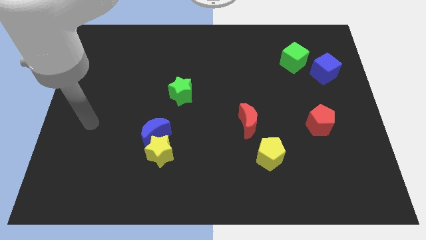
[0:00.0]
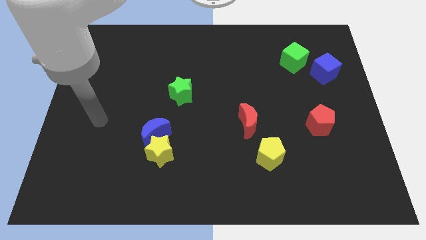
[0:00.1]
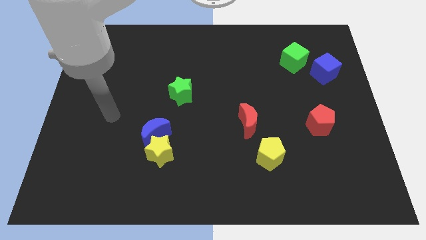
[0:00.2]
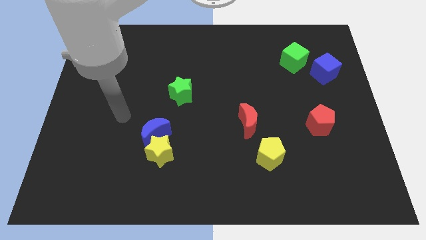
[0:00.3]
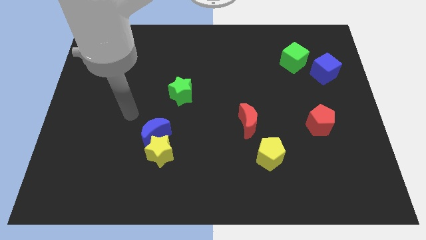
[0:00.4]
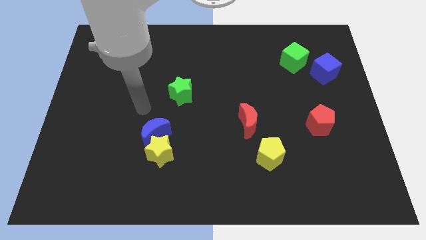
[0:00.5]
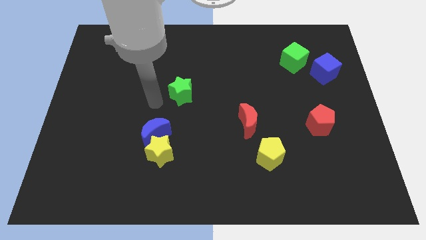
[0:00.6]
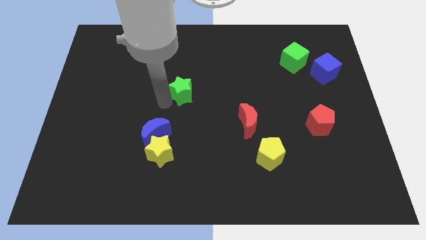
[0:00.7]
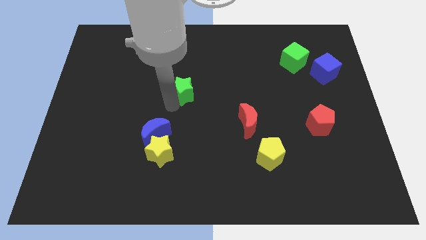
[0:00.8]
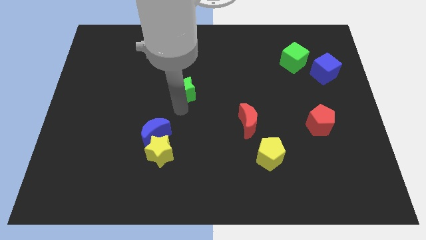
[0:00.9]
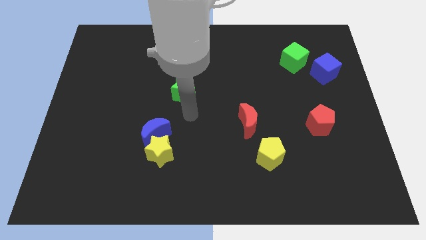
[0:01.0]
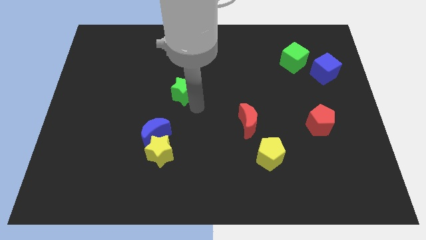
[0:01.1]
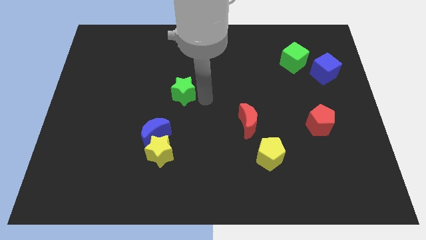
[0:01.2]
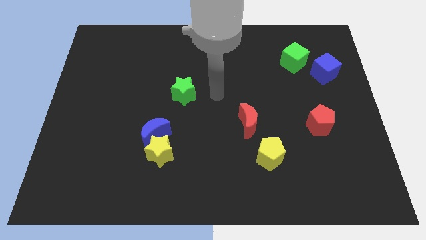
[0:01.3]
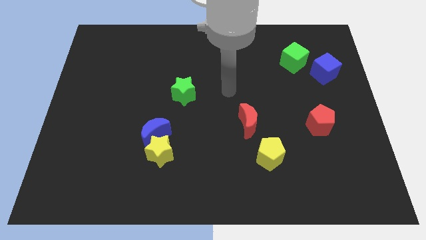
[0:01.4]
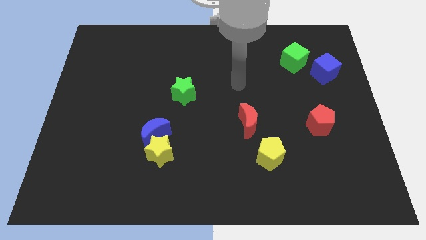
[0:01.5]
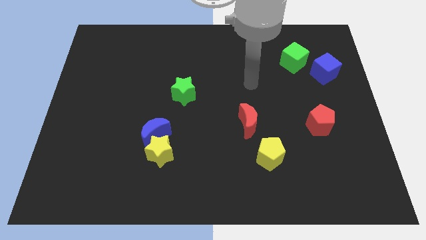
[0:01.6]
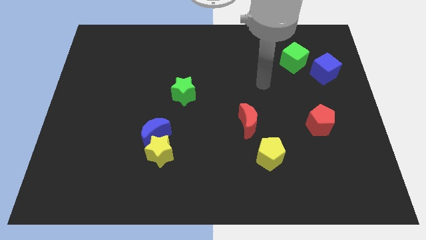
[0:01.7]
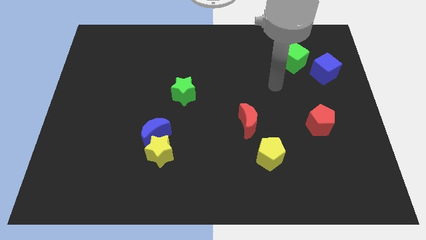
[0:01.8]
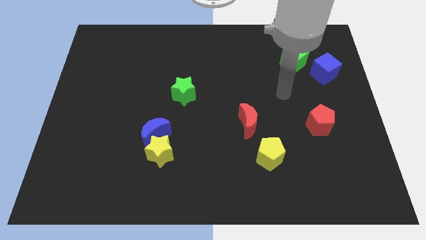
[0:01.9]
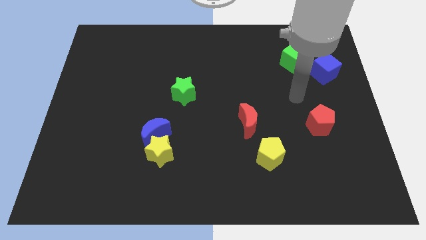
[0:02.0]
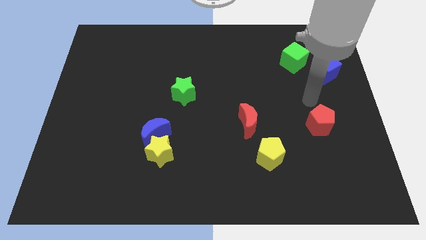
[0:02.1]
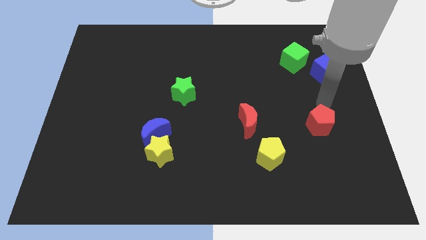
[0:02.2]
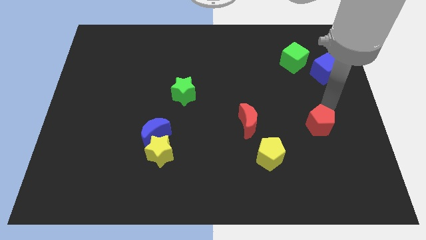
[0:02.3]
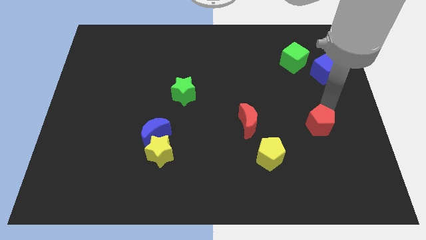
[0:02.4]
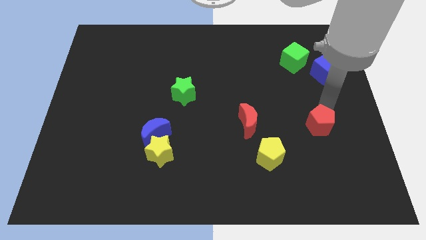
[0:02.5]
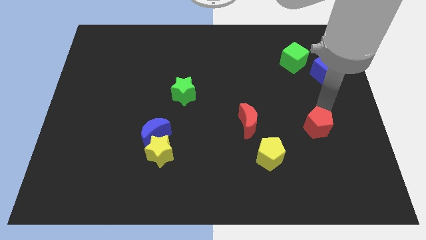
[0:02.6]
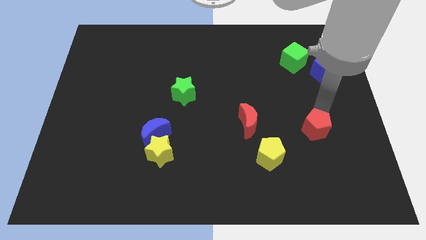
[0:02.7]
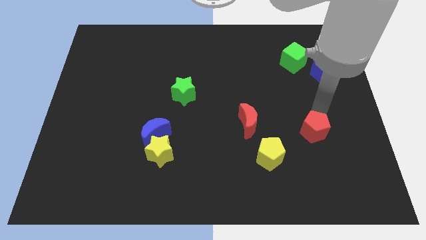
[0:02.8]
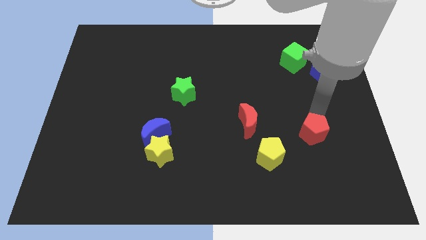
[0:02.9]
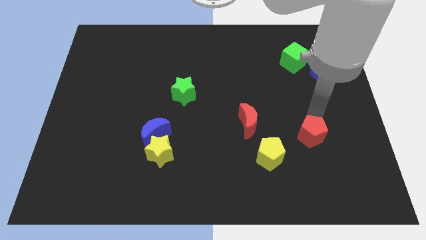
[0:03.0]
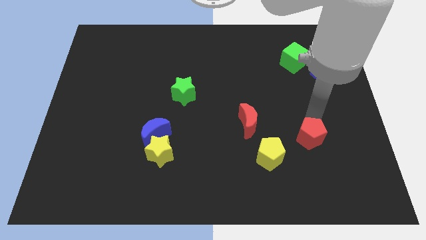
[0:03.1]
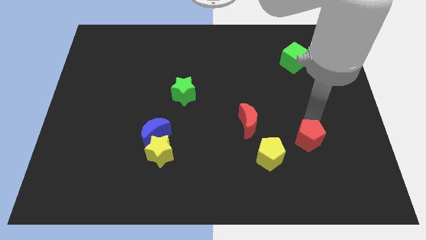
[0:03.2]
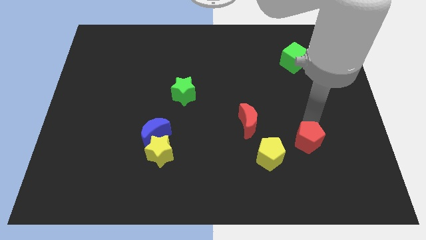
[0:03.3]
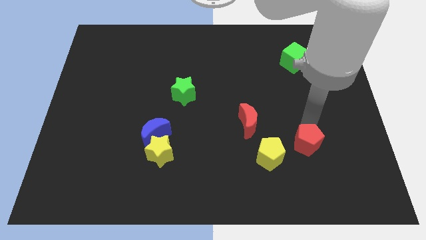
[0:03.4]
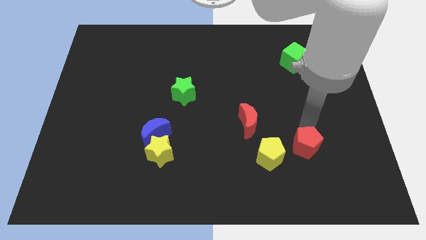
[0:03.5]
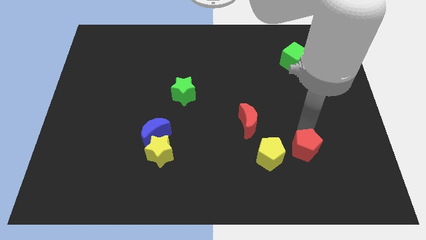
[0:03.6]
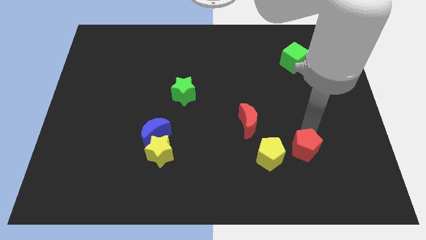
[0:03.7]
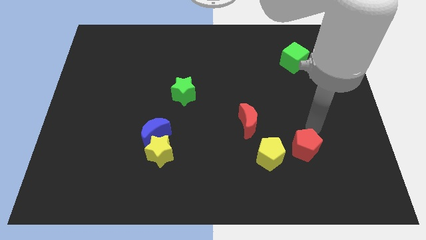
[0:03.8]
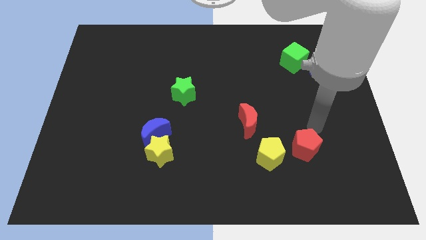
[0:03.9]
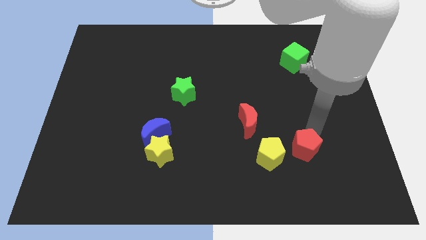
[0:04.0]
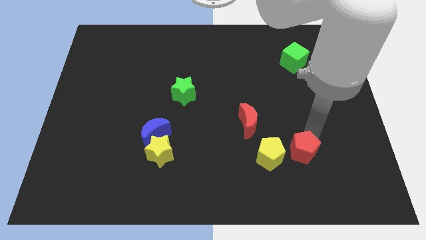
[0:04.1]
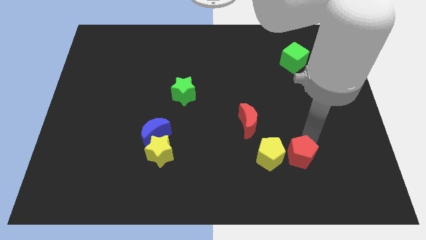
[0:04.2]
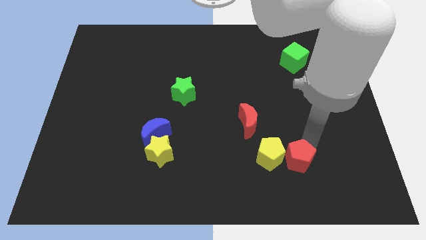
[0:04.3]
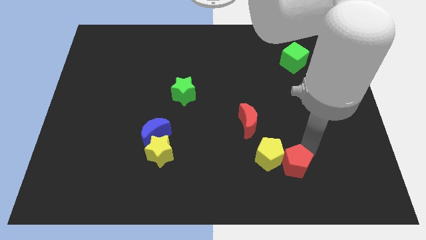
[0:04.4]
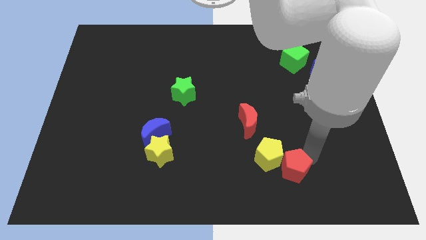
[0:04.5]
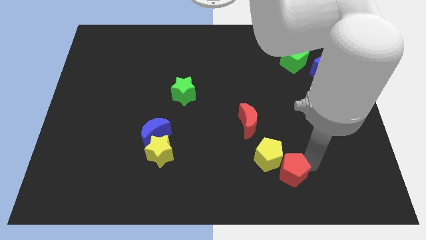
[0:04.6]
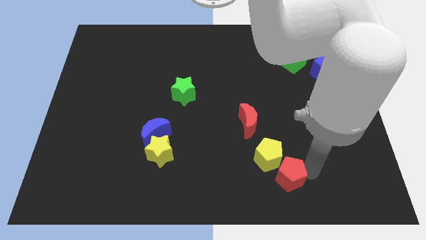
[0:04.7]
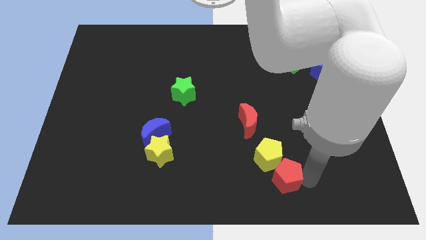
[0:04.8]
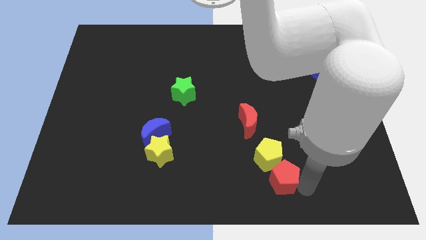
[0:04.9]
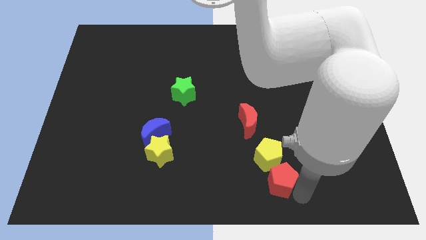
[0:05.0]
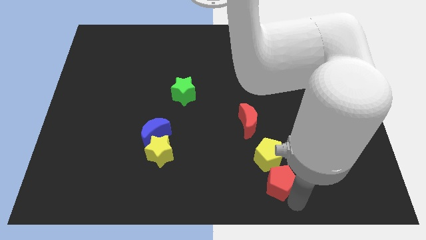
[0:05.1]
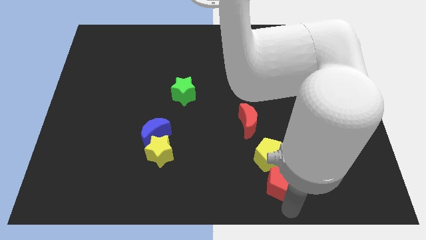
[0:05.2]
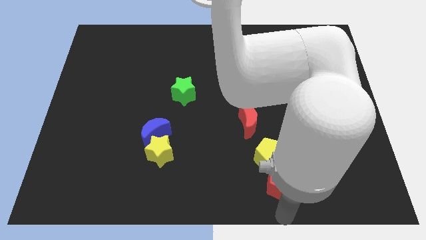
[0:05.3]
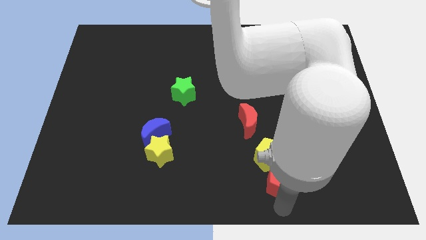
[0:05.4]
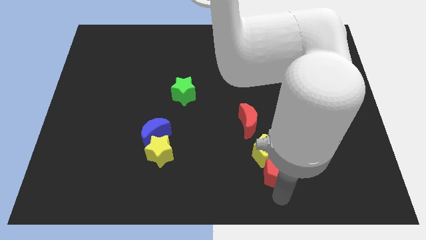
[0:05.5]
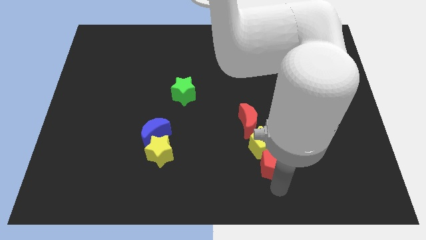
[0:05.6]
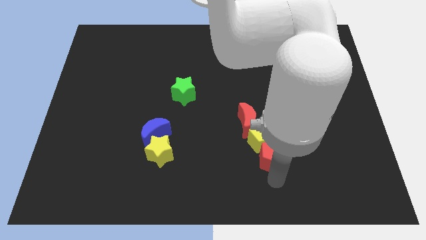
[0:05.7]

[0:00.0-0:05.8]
slide the red pentagon diagonally down and to the right of the red moon

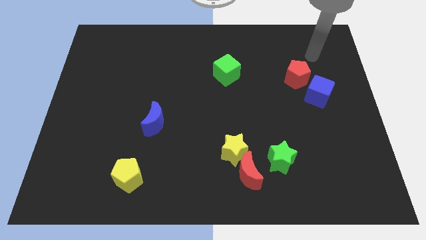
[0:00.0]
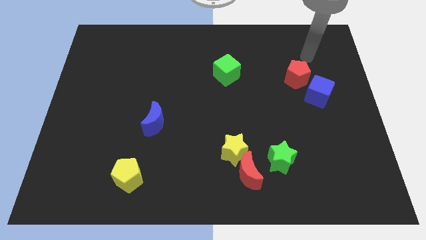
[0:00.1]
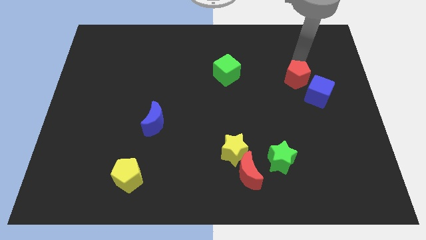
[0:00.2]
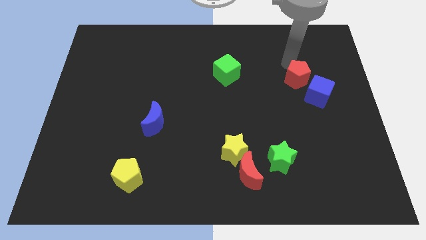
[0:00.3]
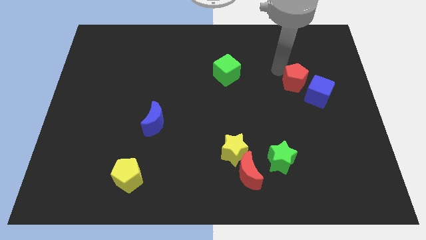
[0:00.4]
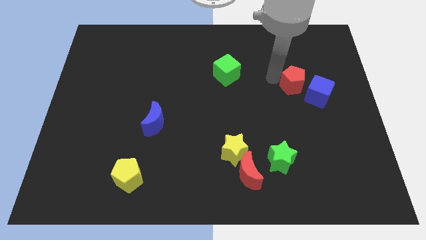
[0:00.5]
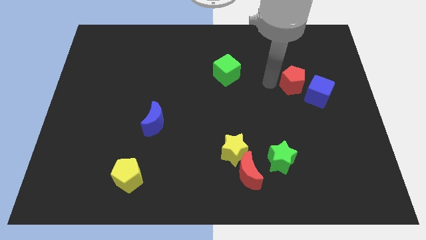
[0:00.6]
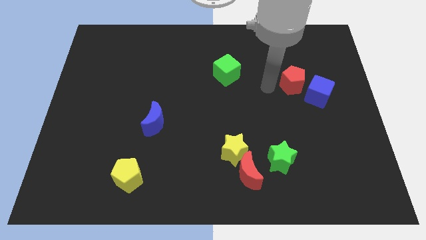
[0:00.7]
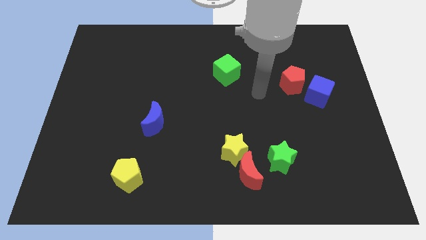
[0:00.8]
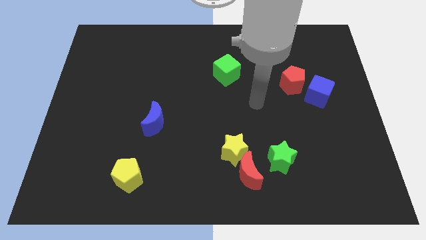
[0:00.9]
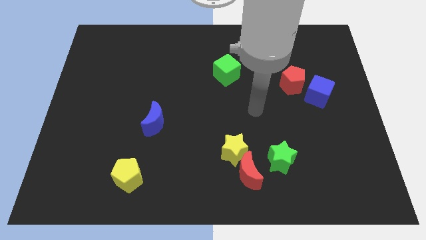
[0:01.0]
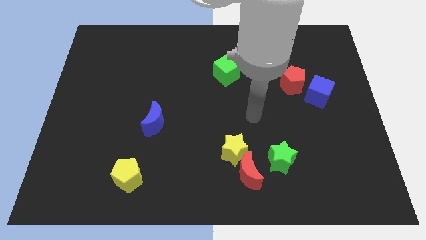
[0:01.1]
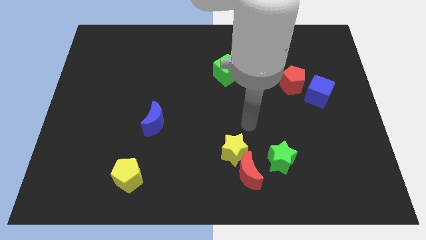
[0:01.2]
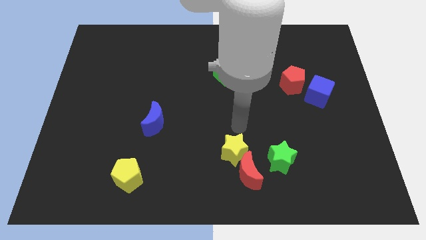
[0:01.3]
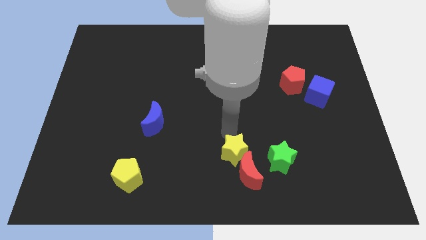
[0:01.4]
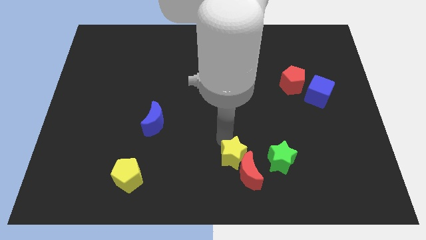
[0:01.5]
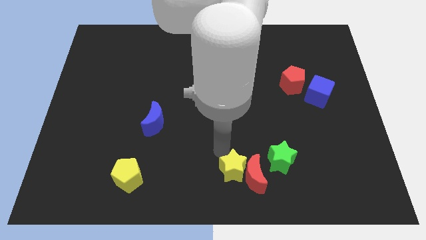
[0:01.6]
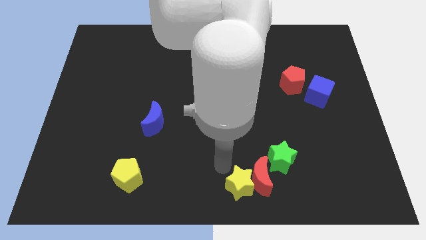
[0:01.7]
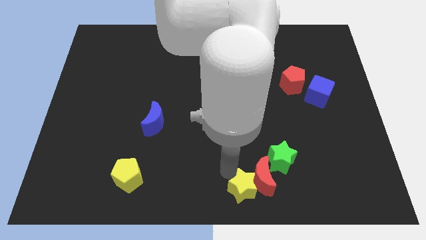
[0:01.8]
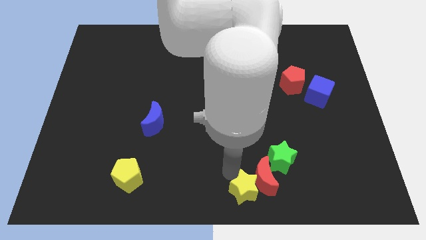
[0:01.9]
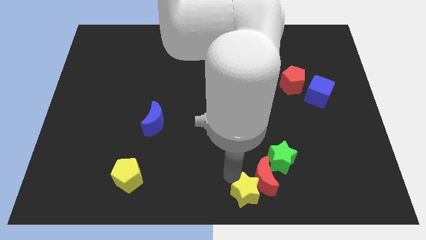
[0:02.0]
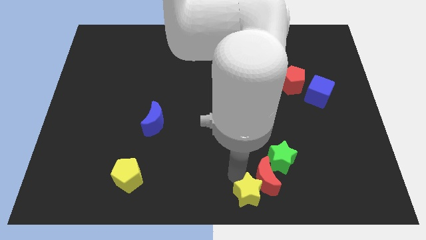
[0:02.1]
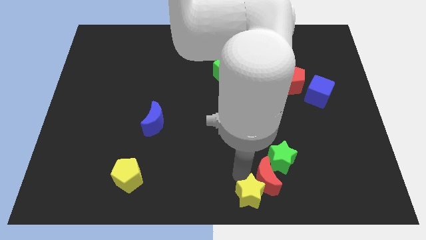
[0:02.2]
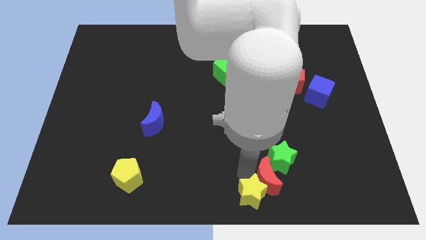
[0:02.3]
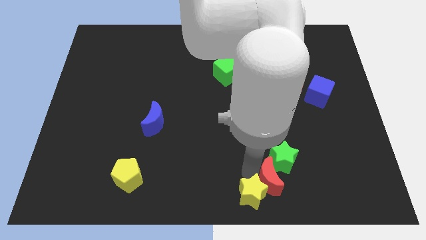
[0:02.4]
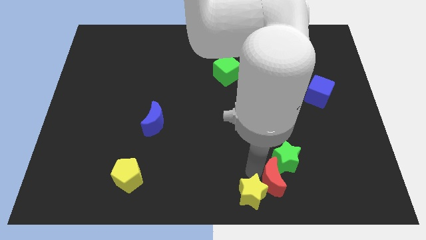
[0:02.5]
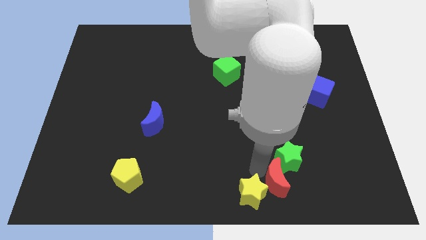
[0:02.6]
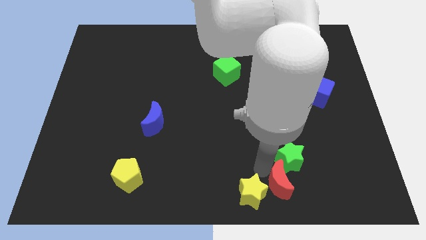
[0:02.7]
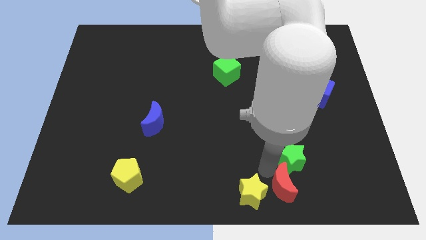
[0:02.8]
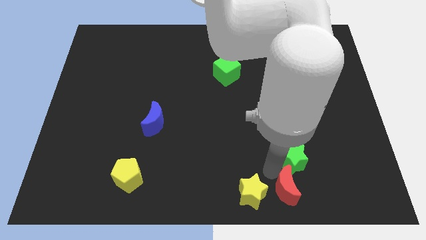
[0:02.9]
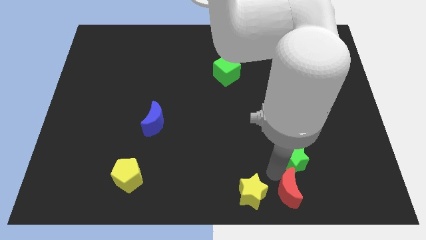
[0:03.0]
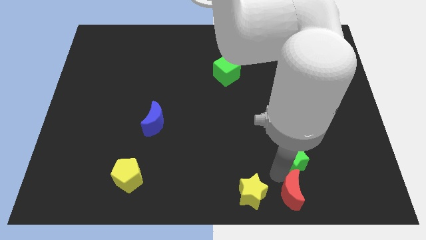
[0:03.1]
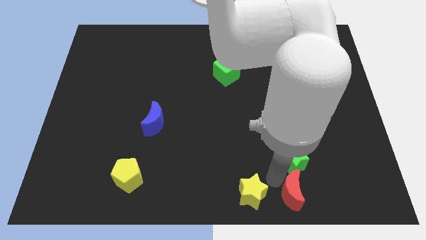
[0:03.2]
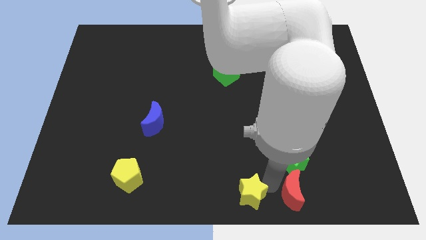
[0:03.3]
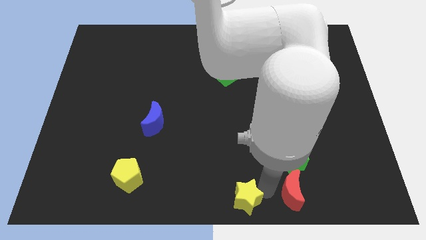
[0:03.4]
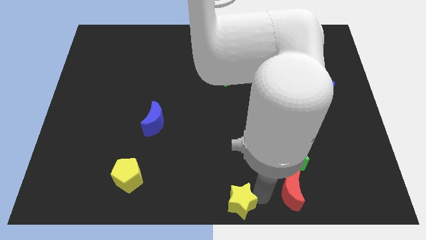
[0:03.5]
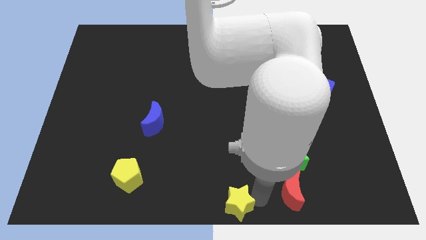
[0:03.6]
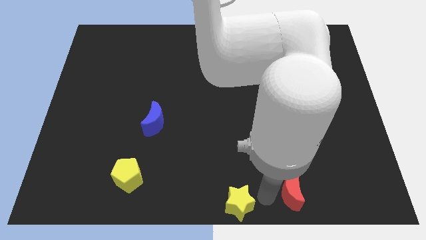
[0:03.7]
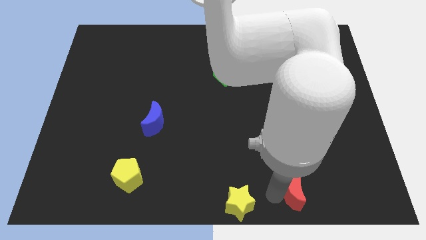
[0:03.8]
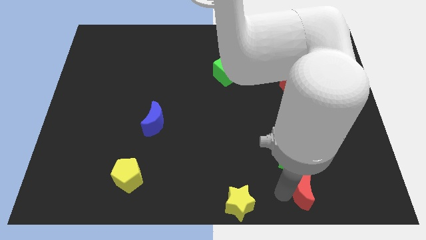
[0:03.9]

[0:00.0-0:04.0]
move the red moon diagonally down and to the right of the green star
